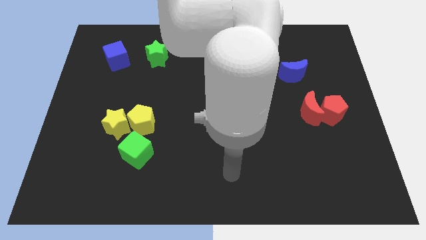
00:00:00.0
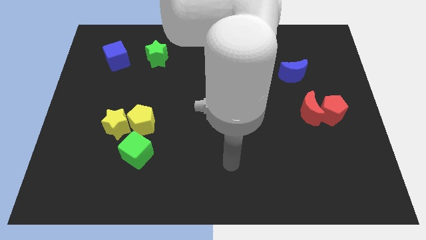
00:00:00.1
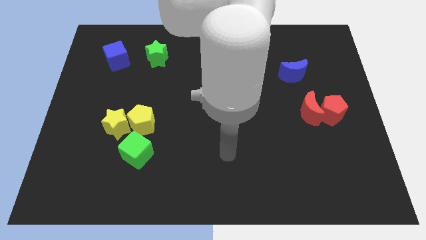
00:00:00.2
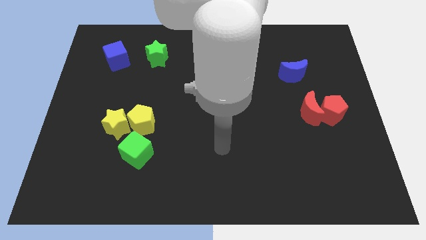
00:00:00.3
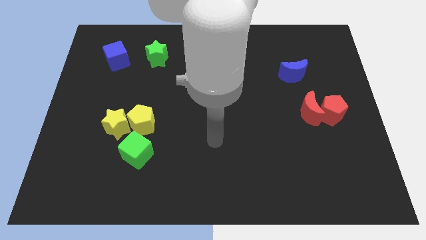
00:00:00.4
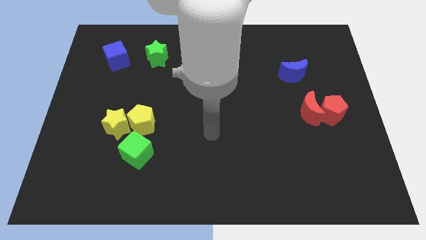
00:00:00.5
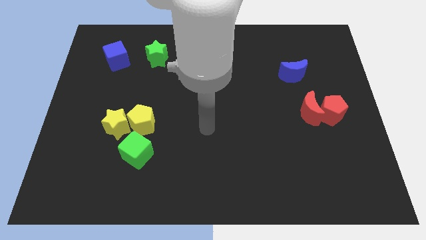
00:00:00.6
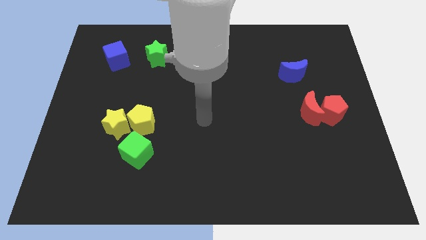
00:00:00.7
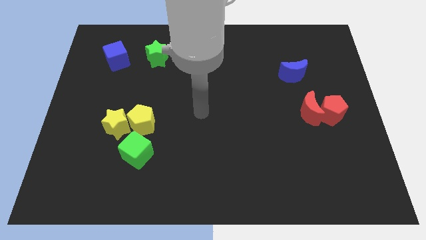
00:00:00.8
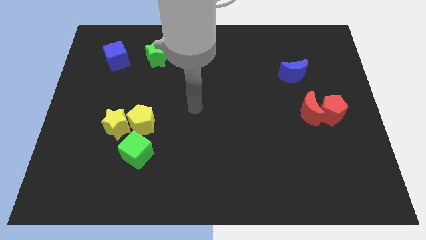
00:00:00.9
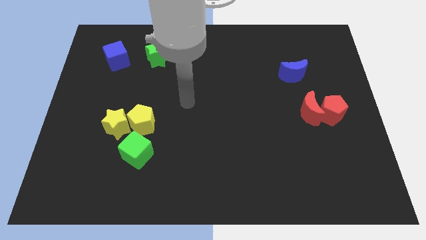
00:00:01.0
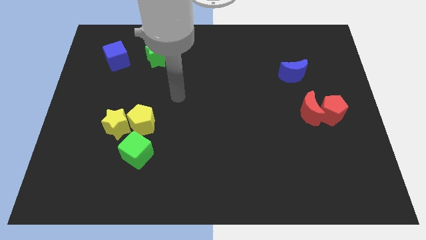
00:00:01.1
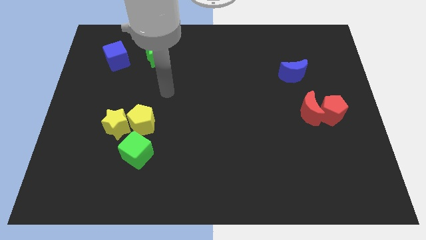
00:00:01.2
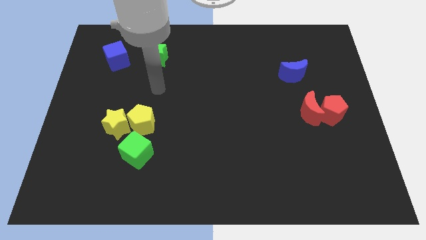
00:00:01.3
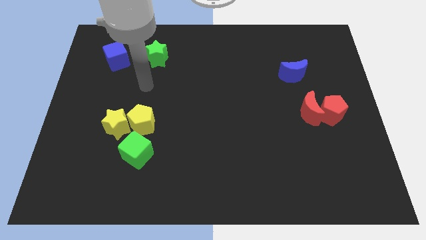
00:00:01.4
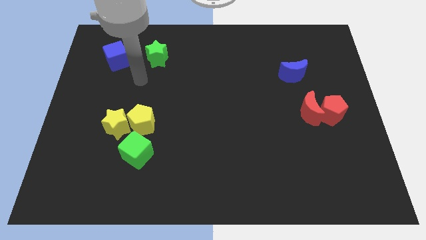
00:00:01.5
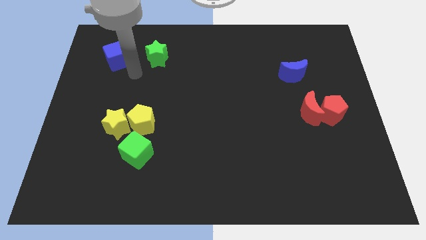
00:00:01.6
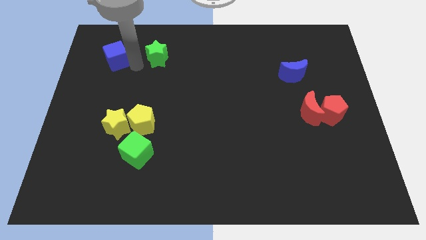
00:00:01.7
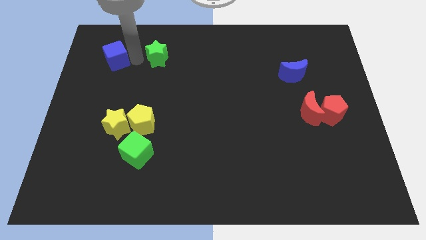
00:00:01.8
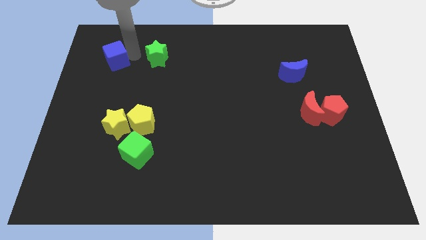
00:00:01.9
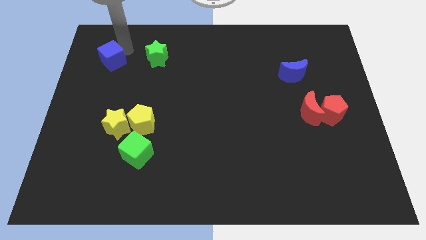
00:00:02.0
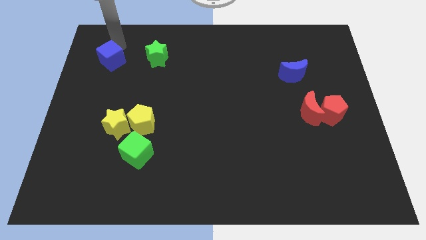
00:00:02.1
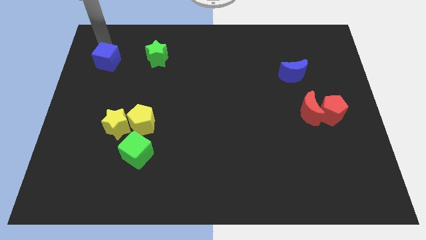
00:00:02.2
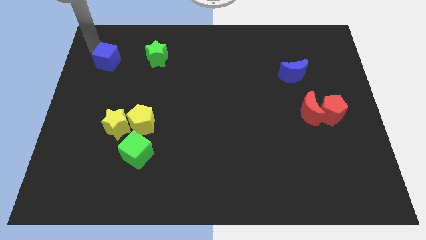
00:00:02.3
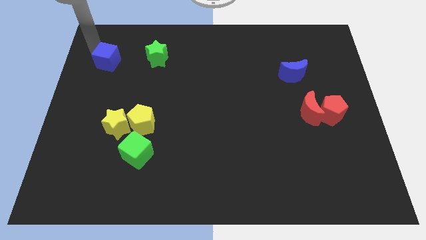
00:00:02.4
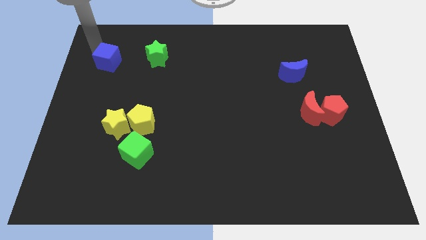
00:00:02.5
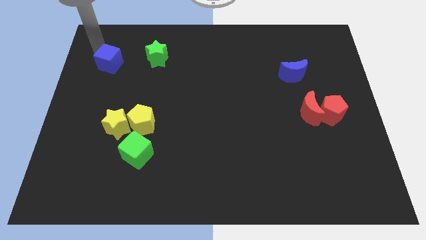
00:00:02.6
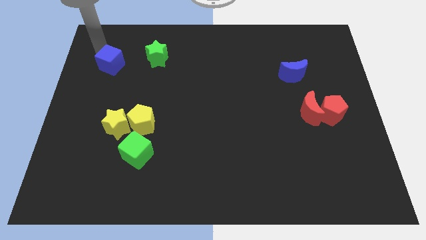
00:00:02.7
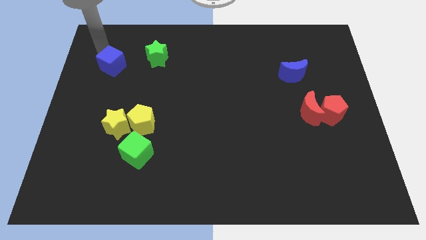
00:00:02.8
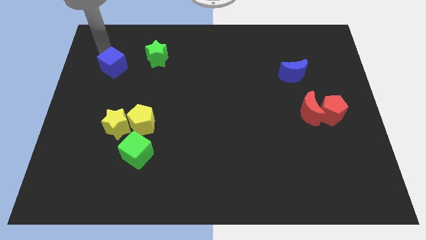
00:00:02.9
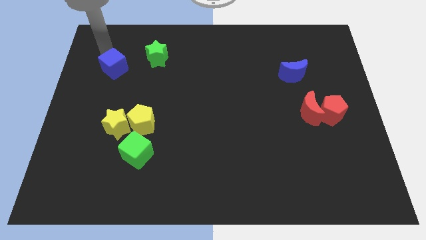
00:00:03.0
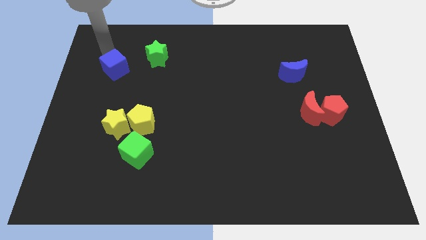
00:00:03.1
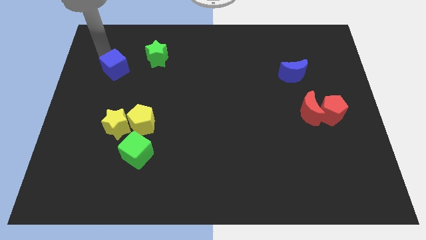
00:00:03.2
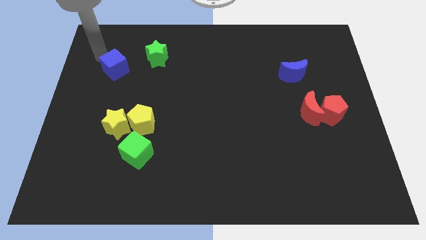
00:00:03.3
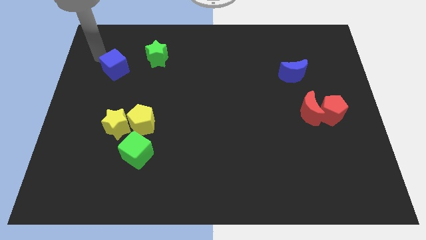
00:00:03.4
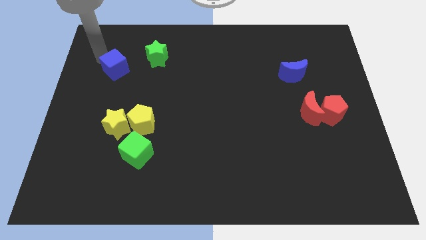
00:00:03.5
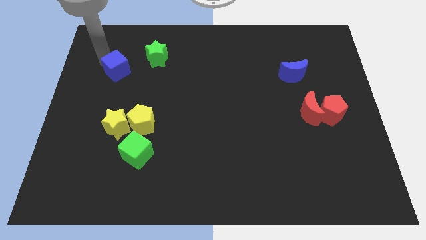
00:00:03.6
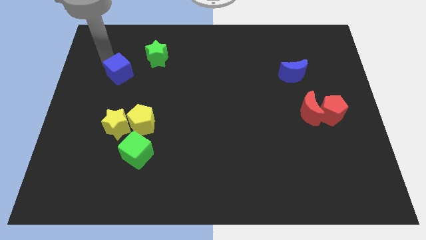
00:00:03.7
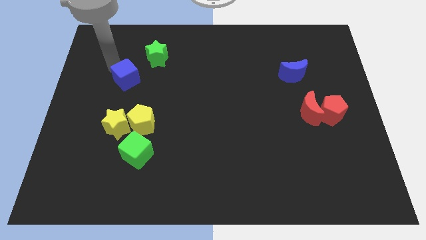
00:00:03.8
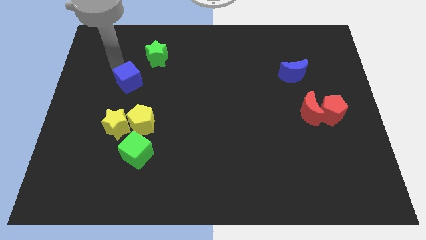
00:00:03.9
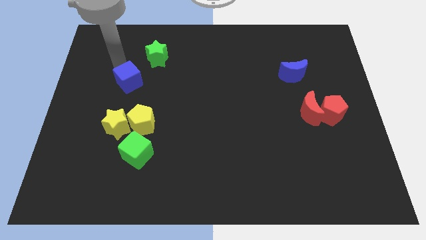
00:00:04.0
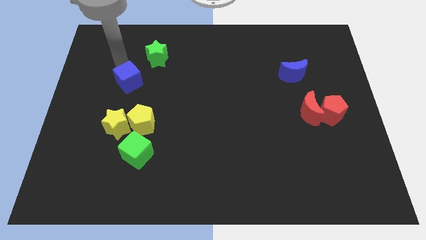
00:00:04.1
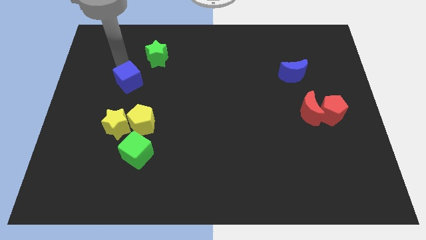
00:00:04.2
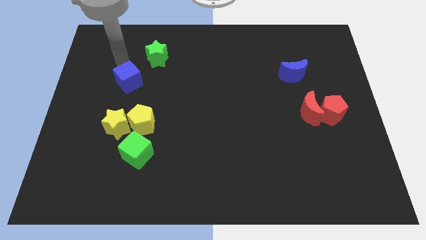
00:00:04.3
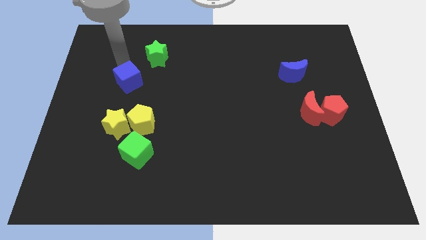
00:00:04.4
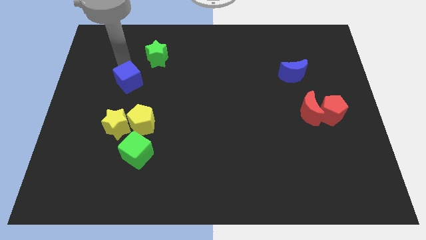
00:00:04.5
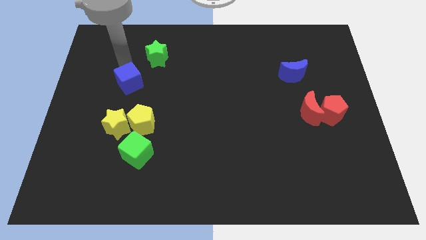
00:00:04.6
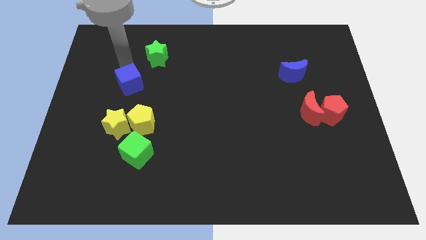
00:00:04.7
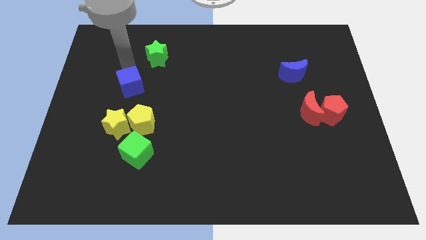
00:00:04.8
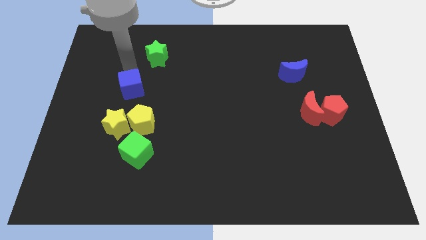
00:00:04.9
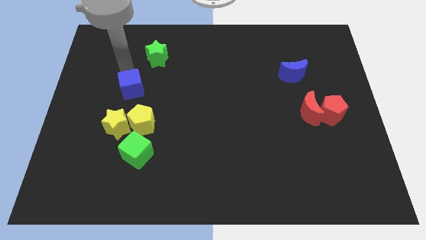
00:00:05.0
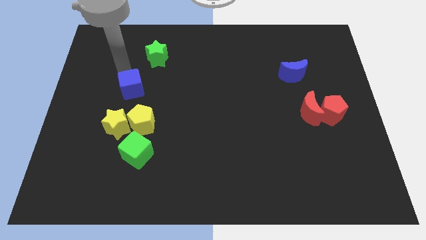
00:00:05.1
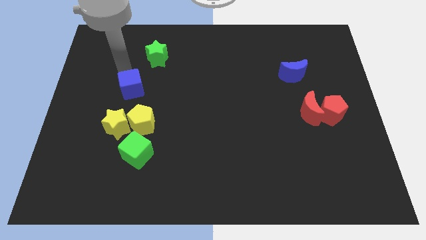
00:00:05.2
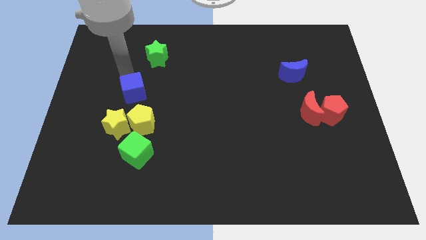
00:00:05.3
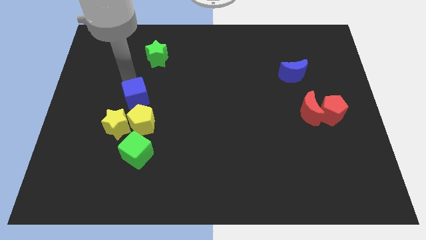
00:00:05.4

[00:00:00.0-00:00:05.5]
put the blue cube to the top right of the yellow star

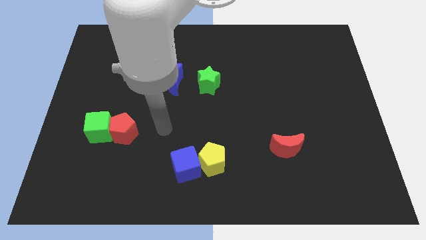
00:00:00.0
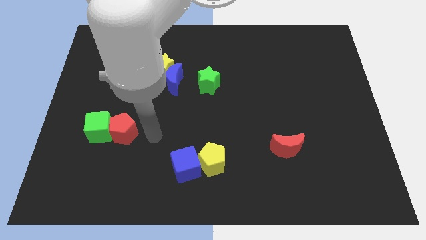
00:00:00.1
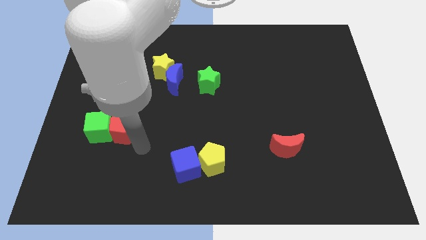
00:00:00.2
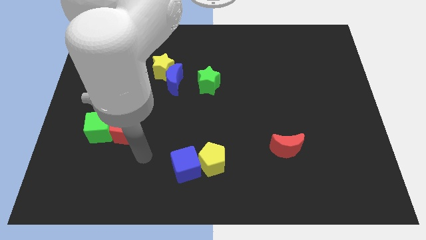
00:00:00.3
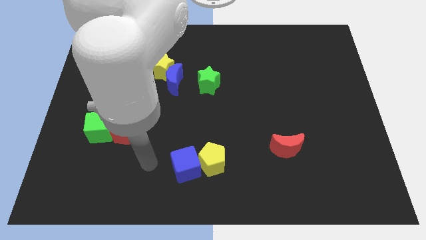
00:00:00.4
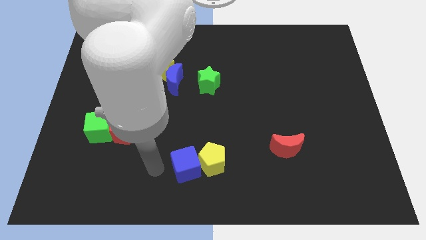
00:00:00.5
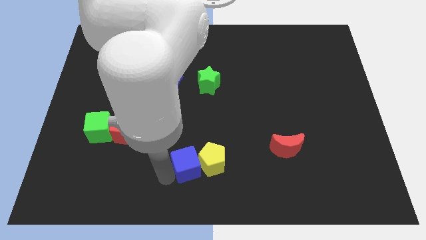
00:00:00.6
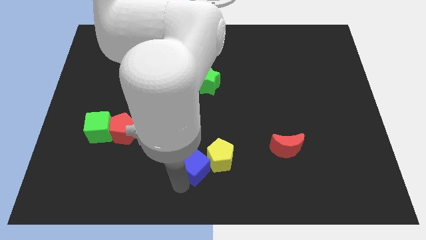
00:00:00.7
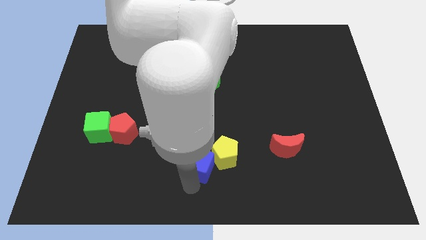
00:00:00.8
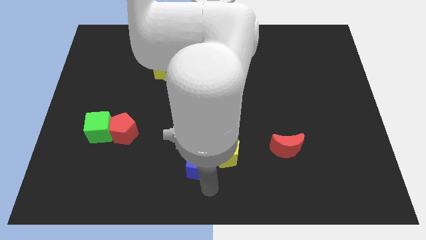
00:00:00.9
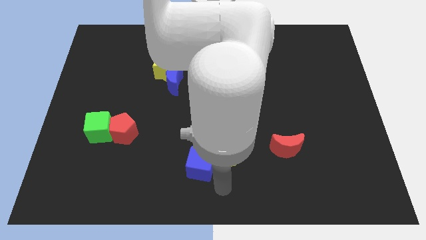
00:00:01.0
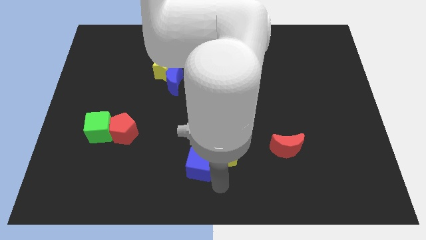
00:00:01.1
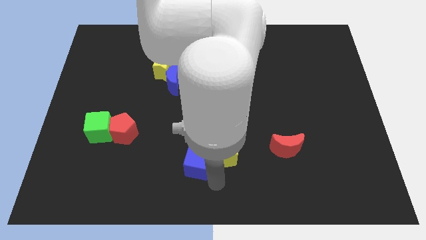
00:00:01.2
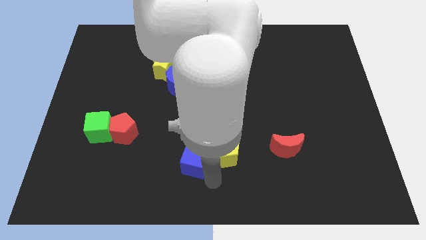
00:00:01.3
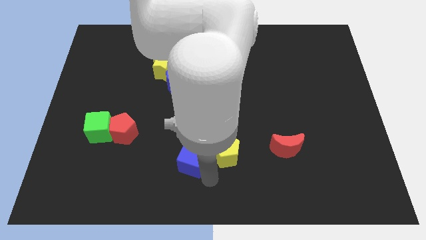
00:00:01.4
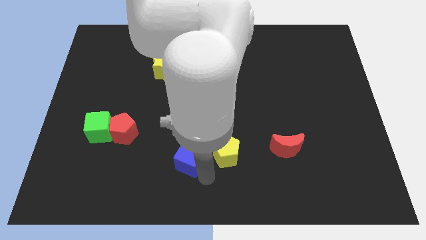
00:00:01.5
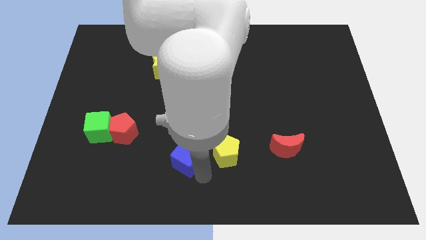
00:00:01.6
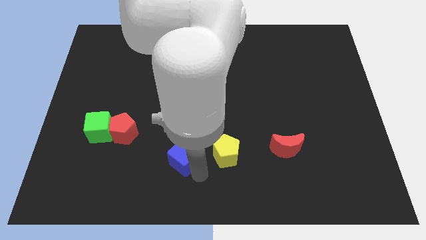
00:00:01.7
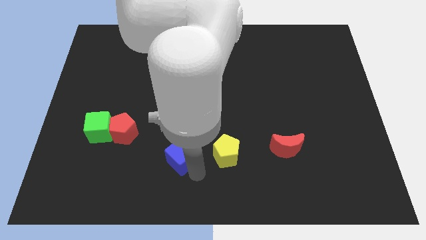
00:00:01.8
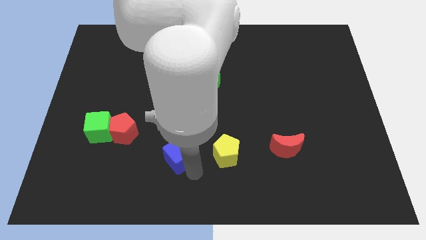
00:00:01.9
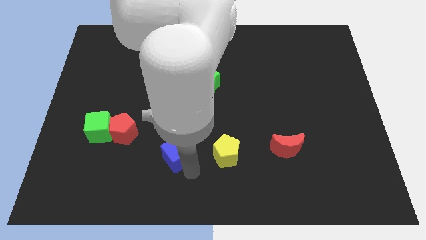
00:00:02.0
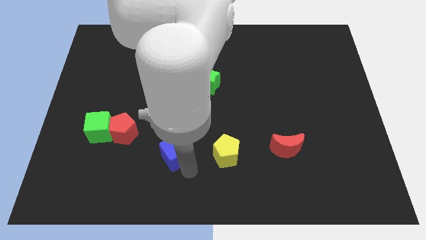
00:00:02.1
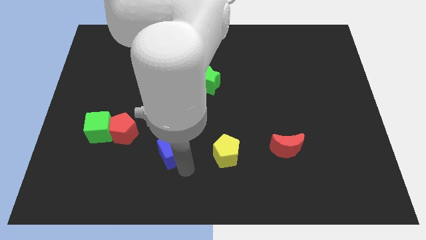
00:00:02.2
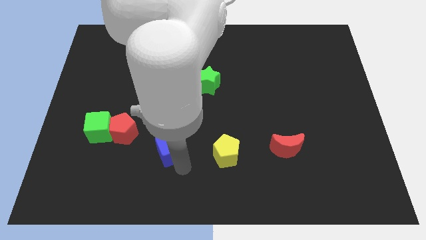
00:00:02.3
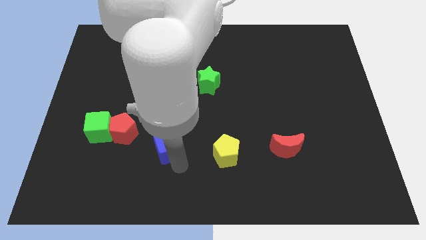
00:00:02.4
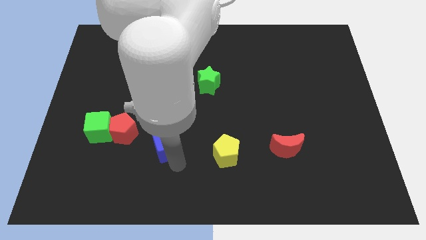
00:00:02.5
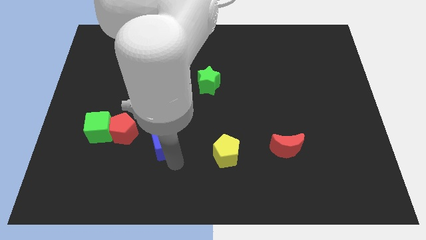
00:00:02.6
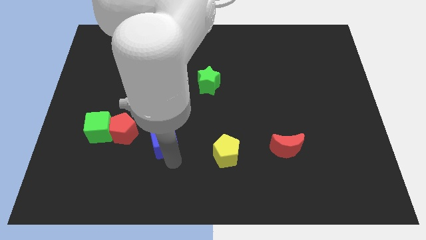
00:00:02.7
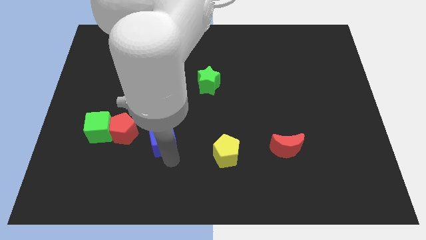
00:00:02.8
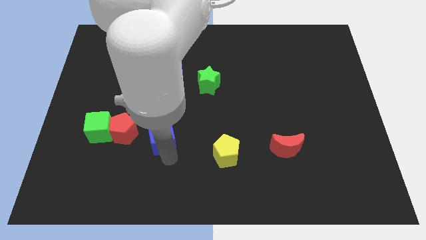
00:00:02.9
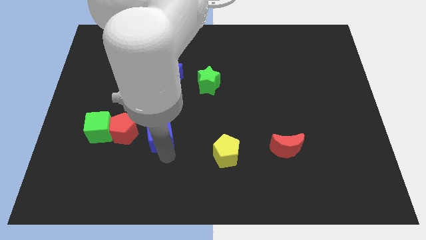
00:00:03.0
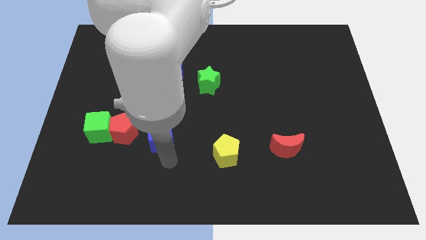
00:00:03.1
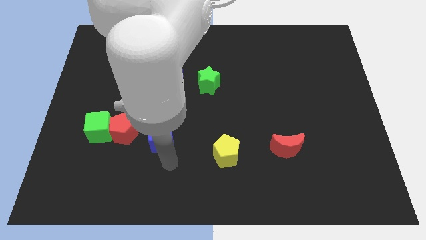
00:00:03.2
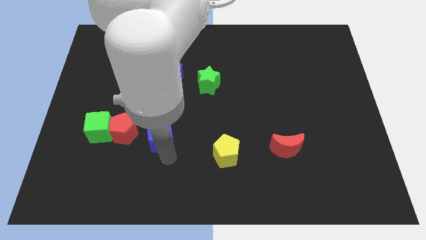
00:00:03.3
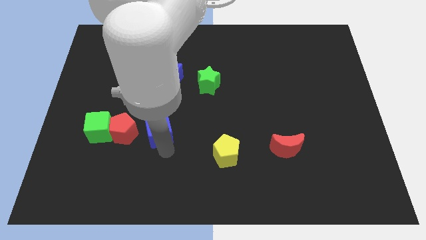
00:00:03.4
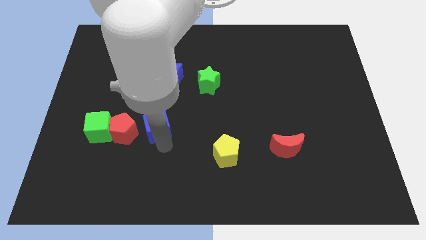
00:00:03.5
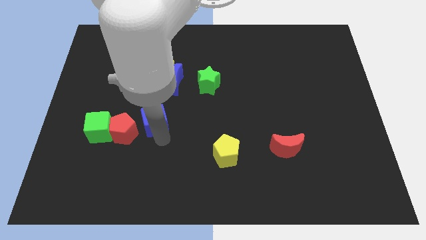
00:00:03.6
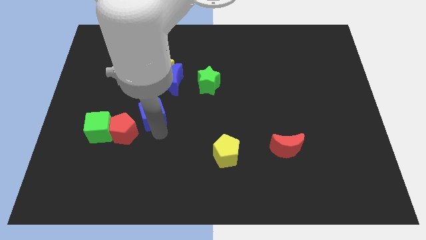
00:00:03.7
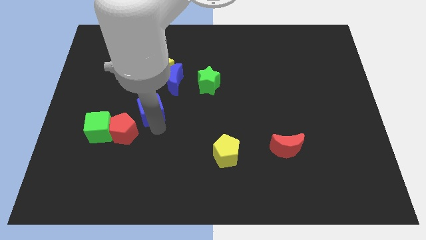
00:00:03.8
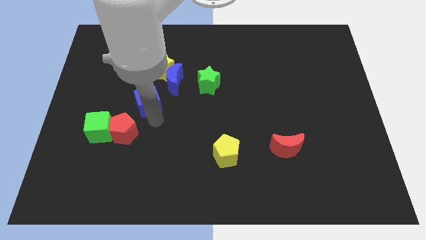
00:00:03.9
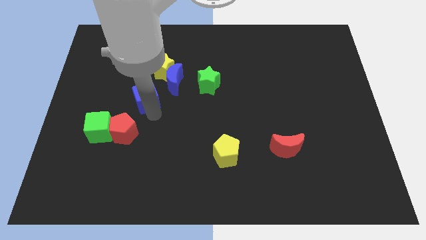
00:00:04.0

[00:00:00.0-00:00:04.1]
move the blue cube diagonally down and to the left of the yellow star
